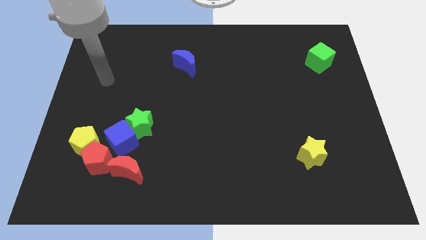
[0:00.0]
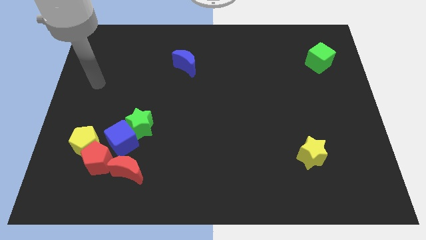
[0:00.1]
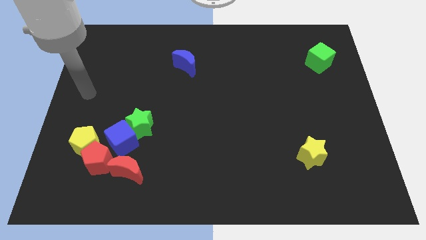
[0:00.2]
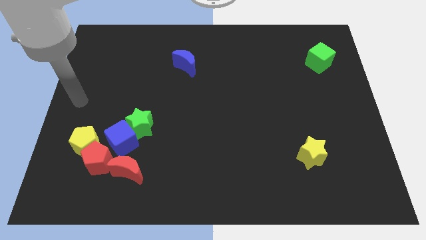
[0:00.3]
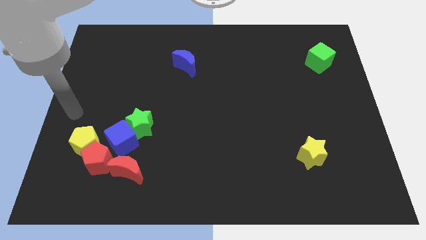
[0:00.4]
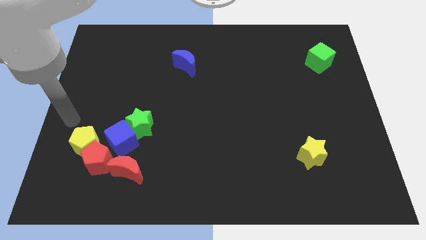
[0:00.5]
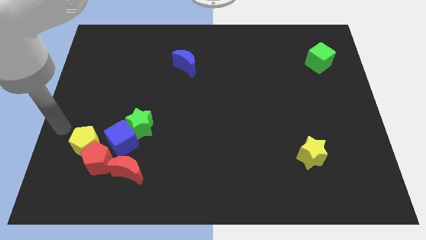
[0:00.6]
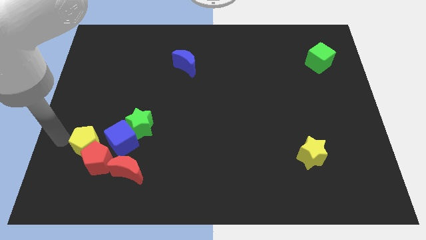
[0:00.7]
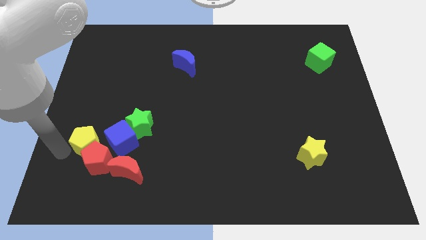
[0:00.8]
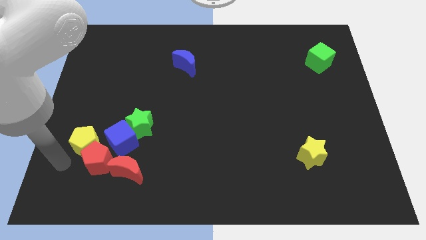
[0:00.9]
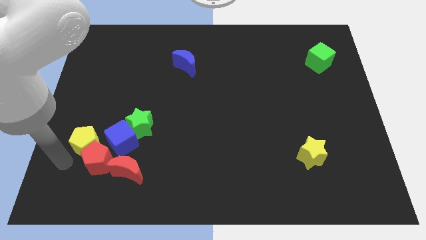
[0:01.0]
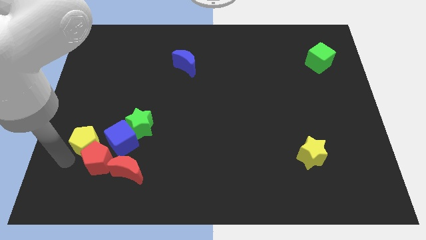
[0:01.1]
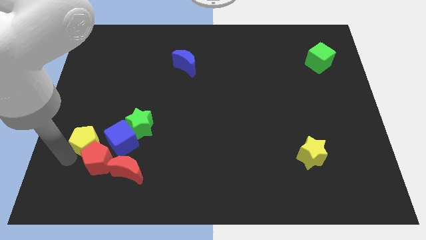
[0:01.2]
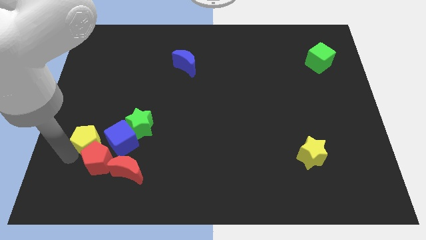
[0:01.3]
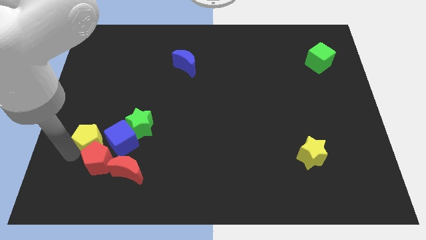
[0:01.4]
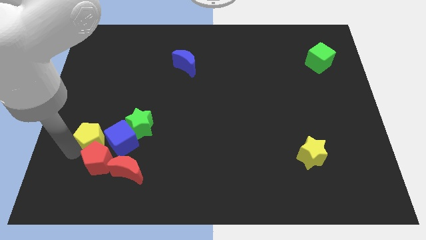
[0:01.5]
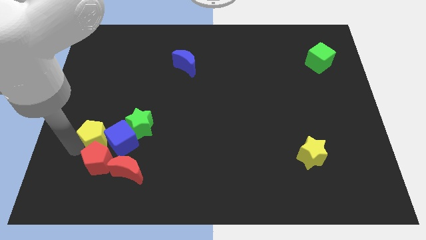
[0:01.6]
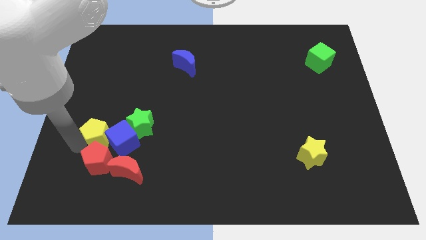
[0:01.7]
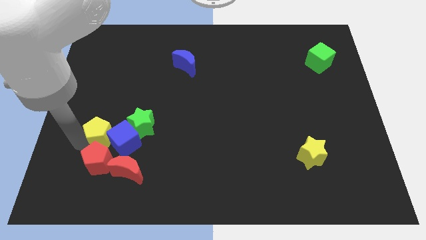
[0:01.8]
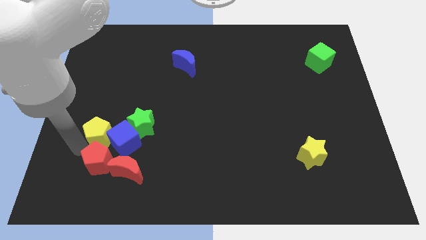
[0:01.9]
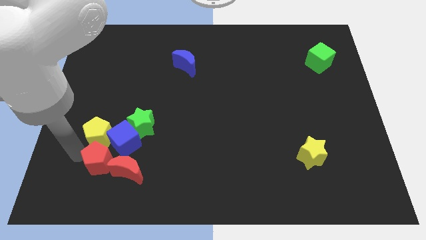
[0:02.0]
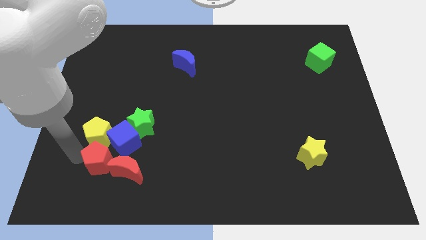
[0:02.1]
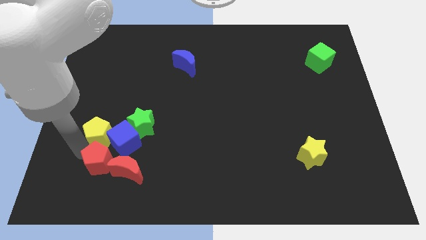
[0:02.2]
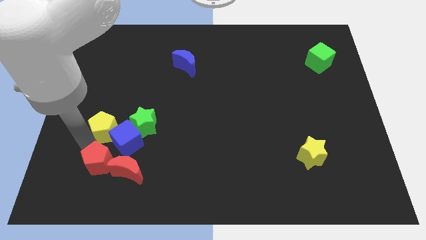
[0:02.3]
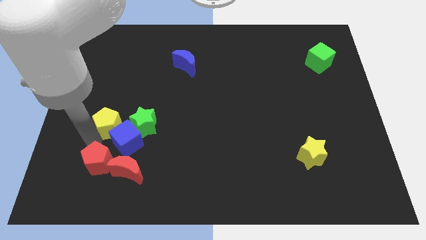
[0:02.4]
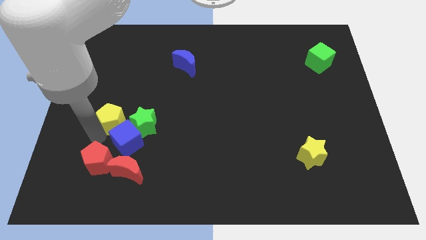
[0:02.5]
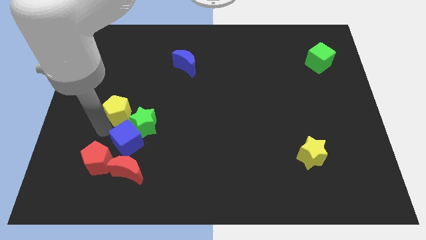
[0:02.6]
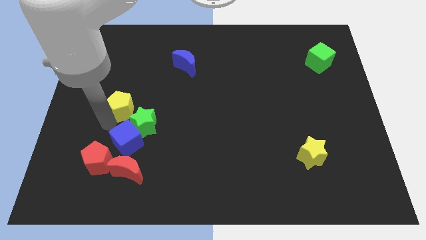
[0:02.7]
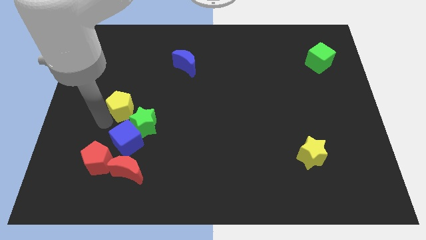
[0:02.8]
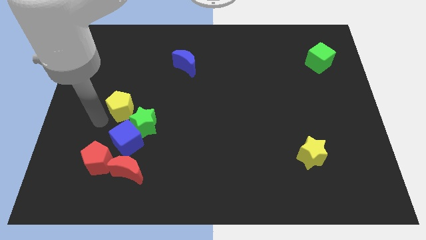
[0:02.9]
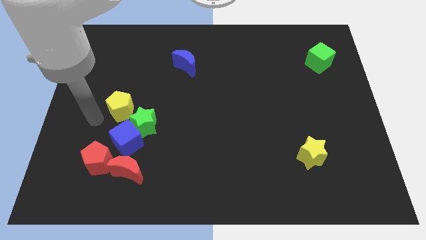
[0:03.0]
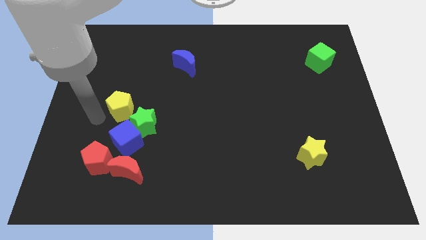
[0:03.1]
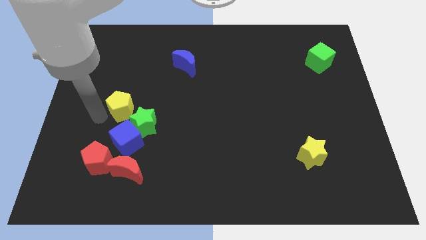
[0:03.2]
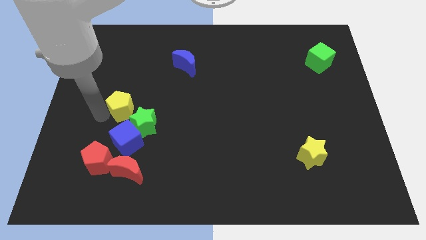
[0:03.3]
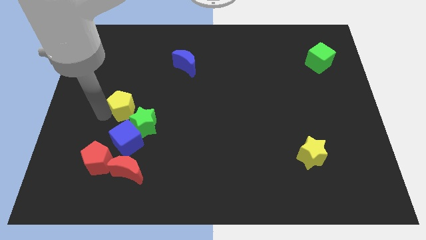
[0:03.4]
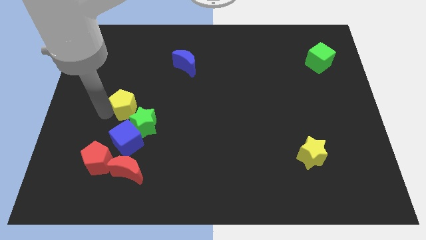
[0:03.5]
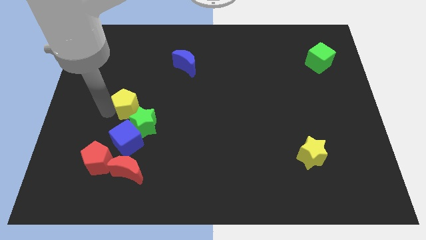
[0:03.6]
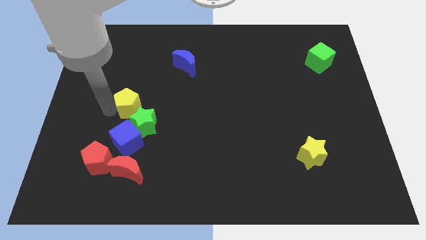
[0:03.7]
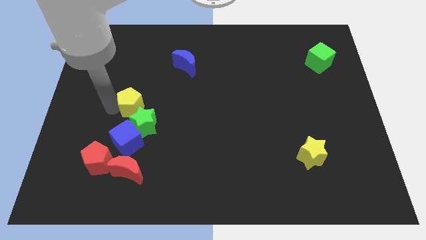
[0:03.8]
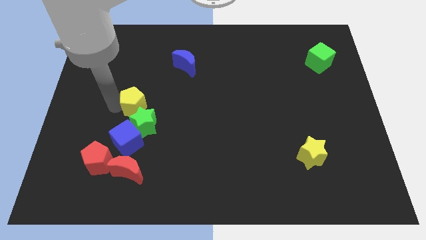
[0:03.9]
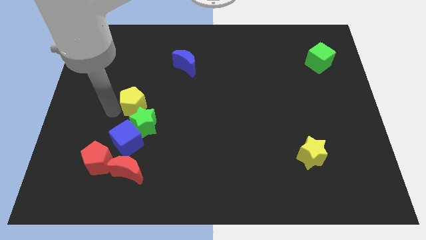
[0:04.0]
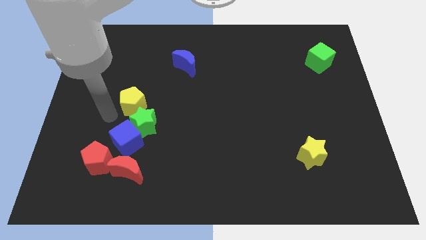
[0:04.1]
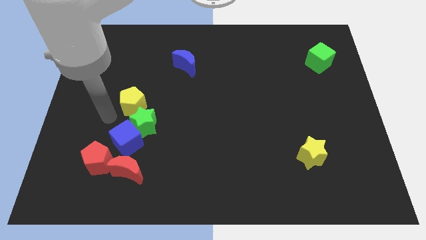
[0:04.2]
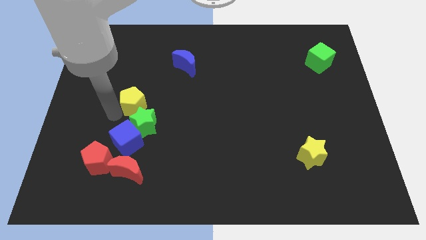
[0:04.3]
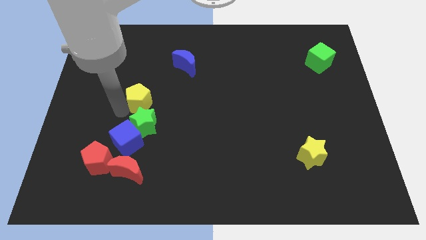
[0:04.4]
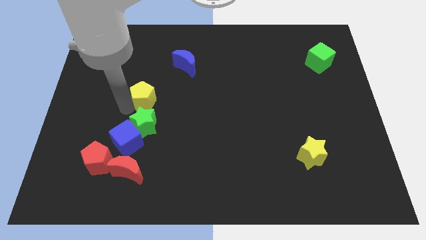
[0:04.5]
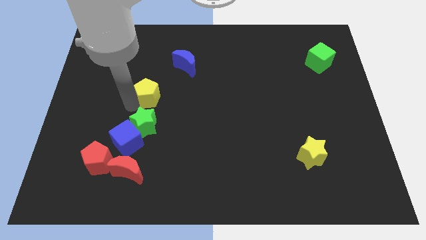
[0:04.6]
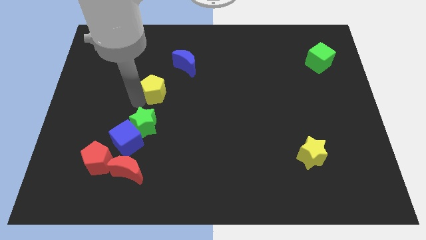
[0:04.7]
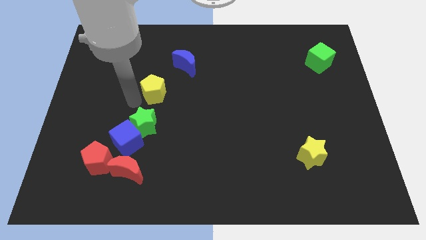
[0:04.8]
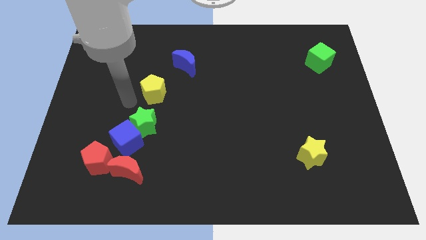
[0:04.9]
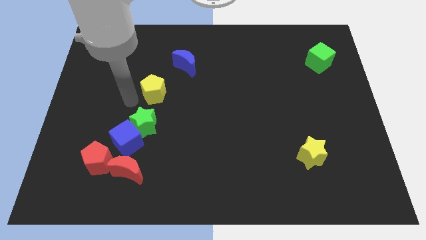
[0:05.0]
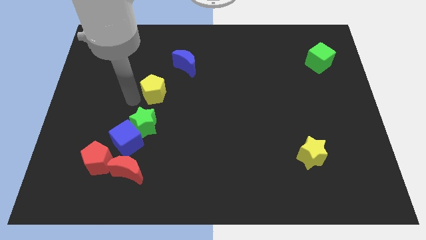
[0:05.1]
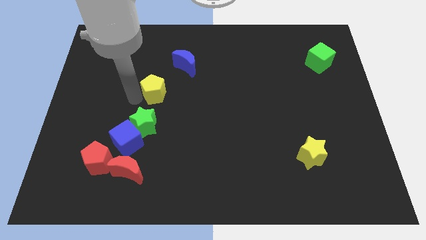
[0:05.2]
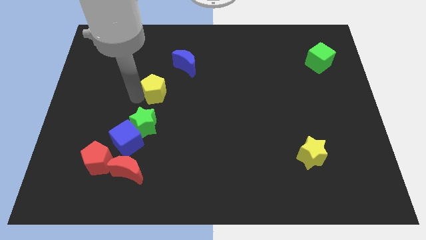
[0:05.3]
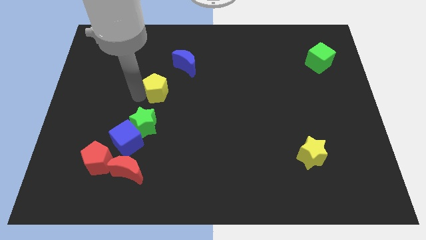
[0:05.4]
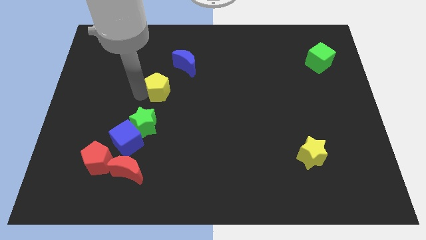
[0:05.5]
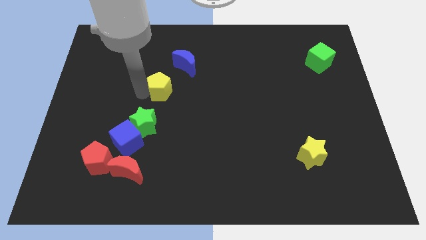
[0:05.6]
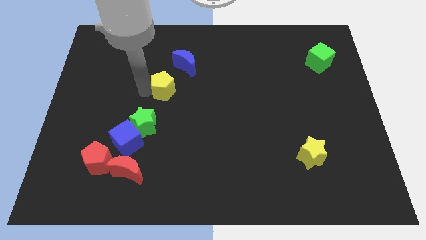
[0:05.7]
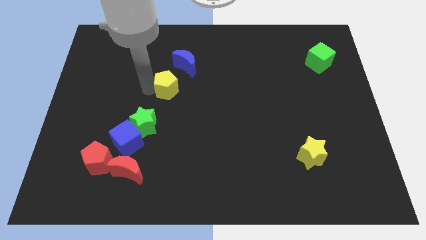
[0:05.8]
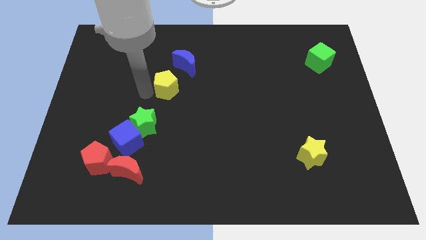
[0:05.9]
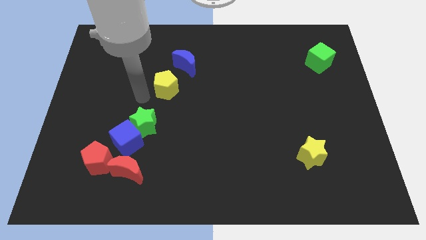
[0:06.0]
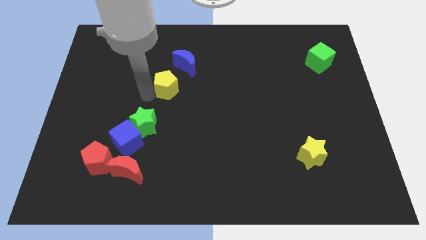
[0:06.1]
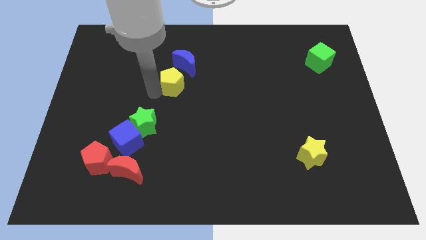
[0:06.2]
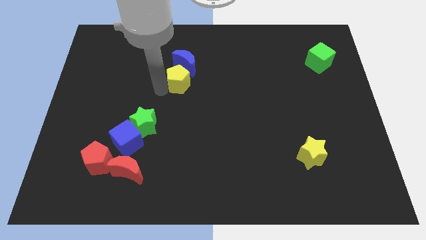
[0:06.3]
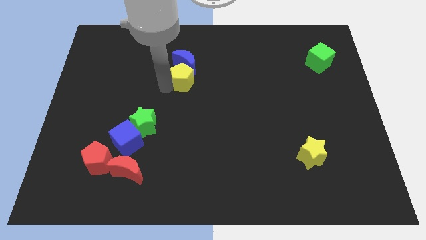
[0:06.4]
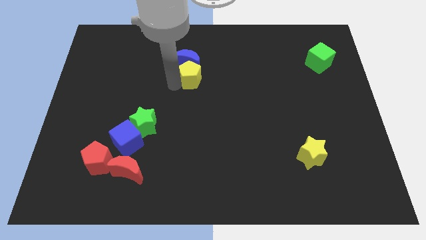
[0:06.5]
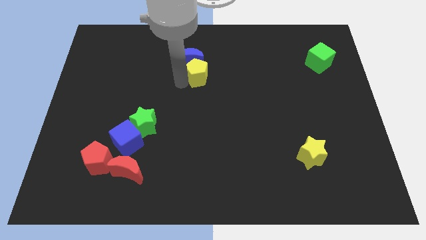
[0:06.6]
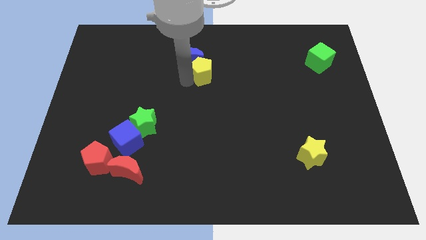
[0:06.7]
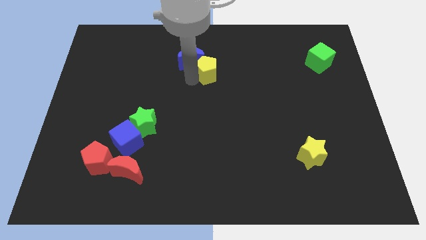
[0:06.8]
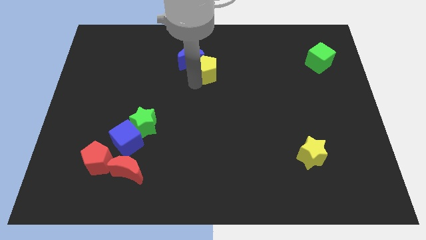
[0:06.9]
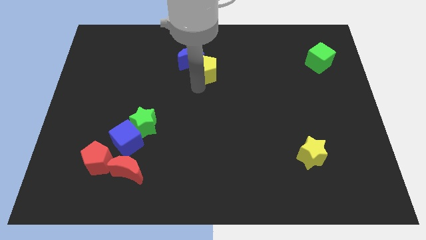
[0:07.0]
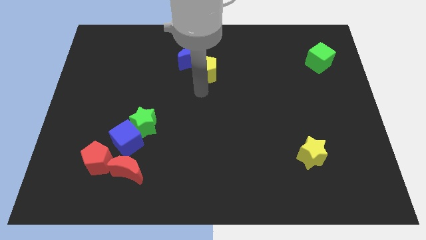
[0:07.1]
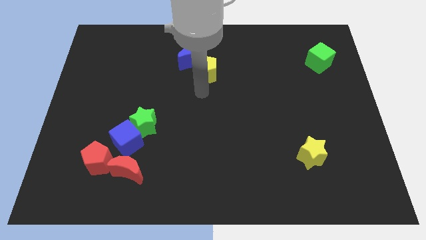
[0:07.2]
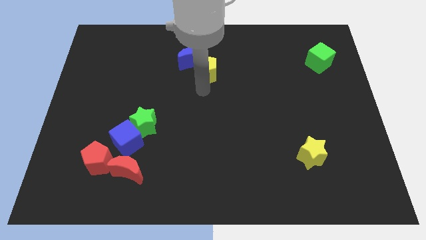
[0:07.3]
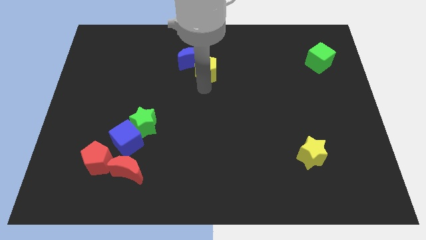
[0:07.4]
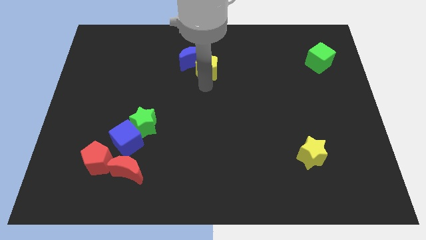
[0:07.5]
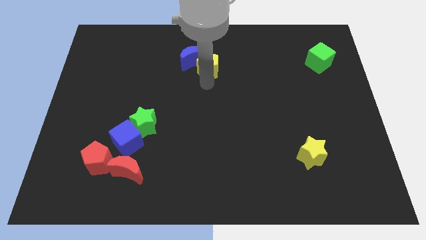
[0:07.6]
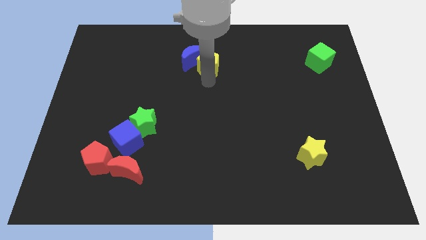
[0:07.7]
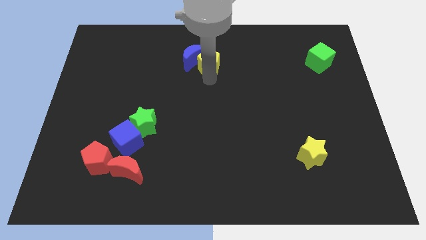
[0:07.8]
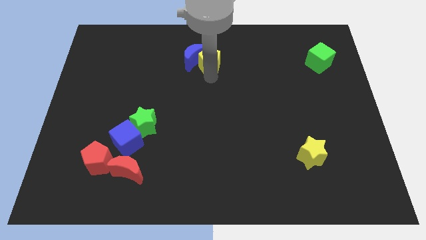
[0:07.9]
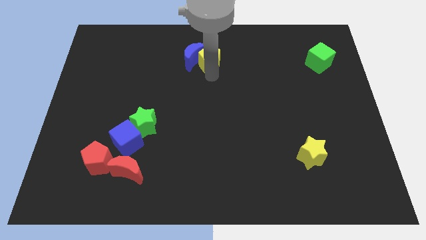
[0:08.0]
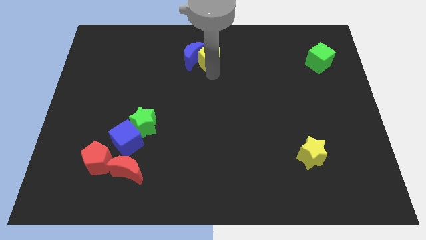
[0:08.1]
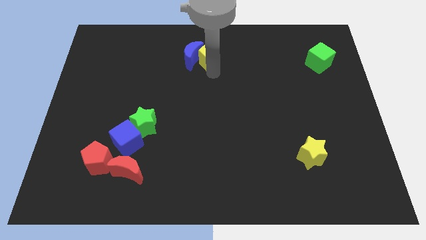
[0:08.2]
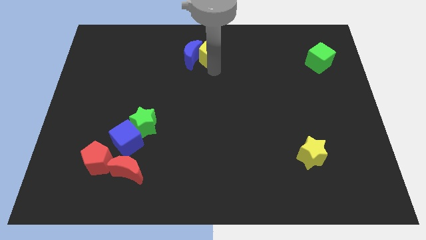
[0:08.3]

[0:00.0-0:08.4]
move the yellow pentagon to the top
